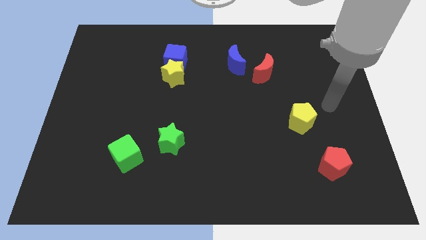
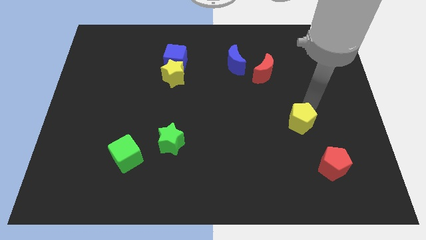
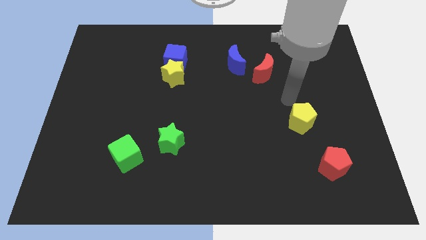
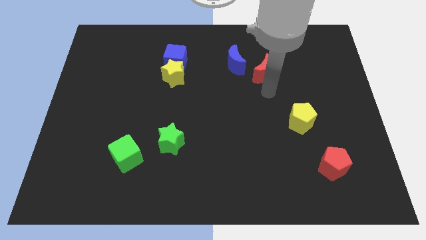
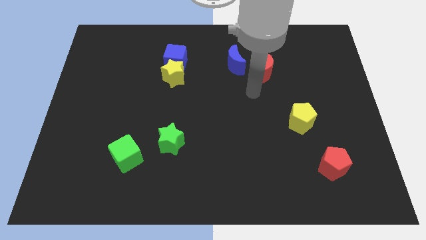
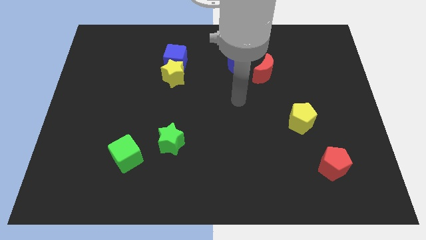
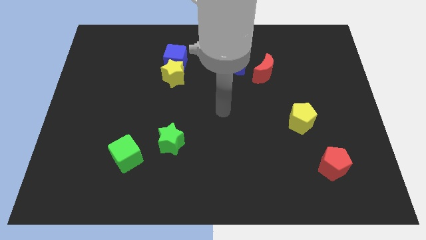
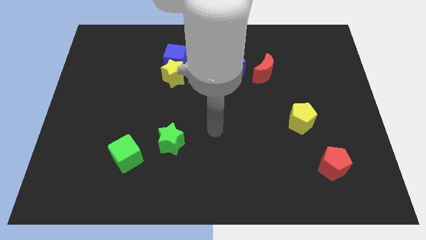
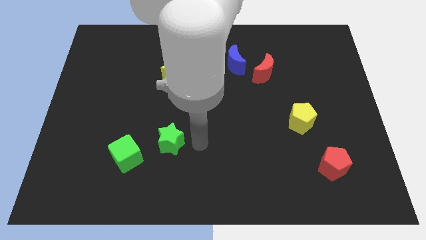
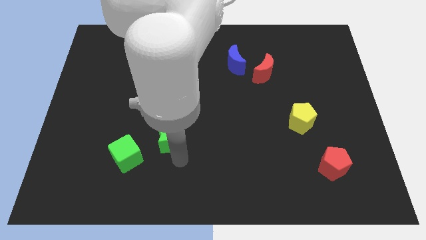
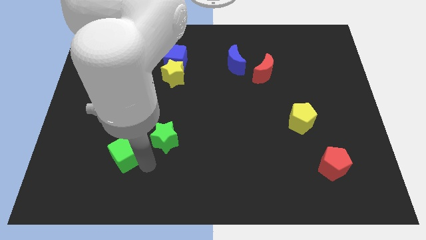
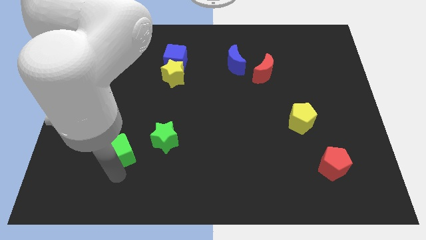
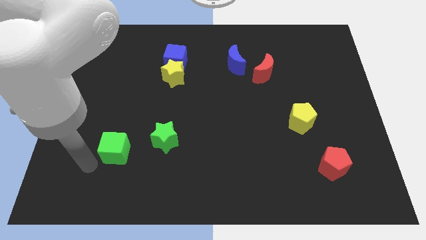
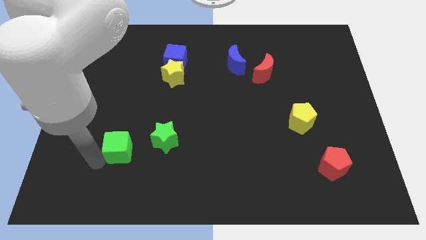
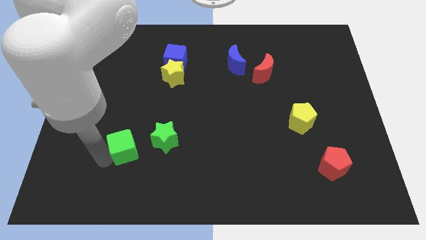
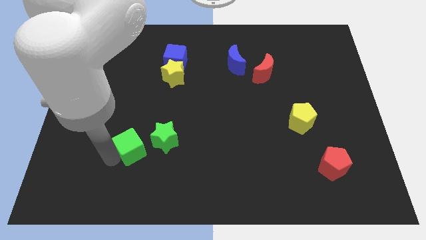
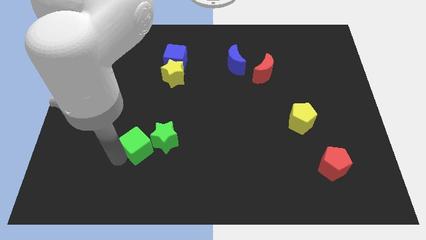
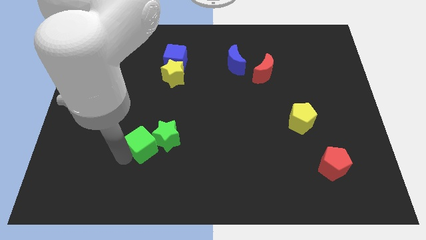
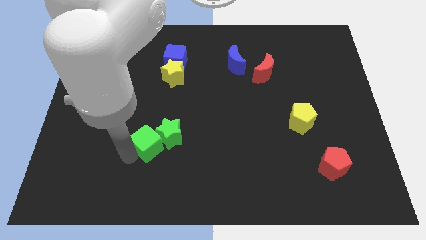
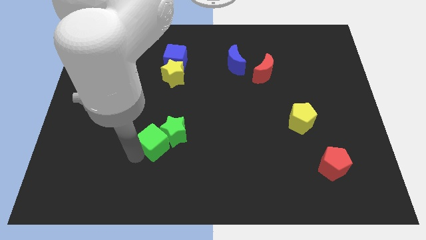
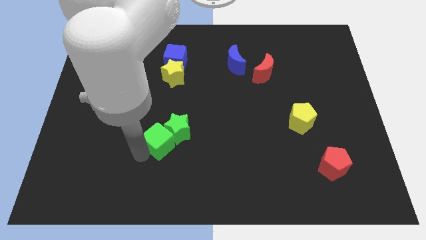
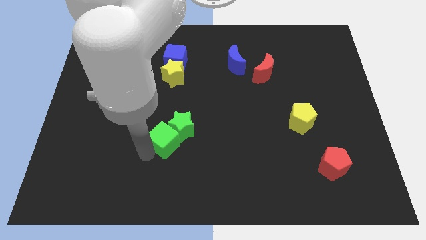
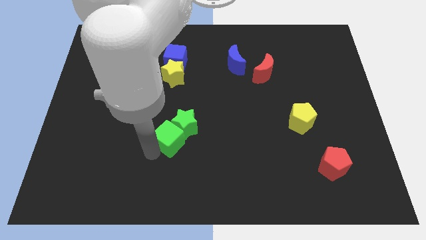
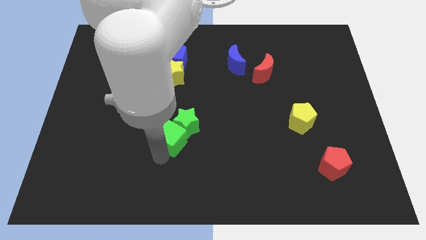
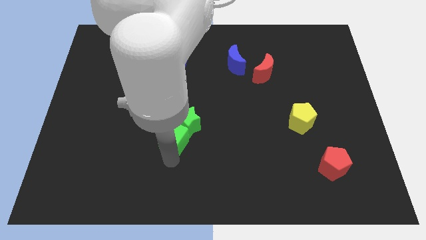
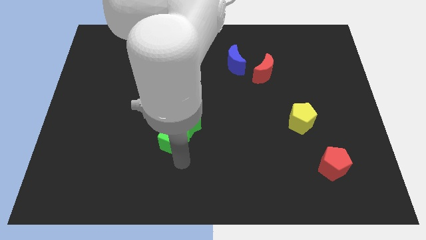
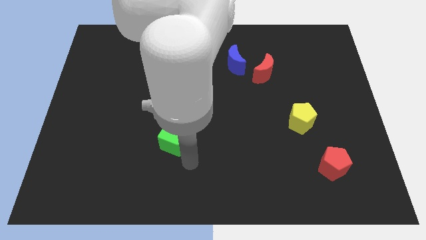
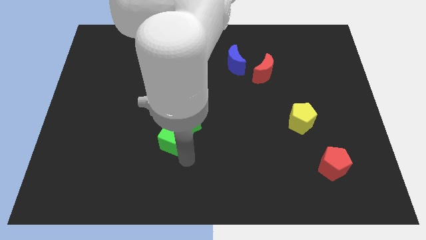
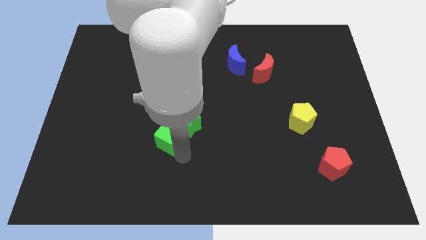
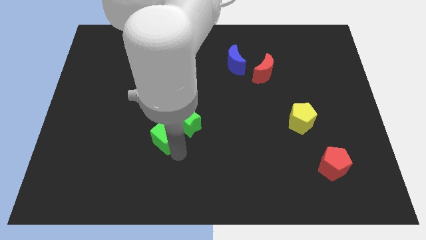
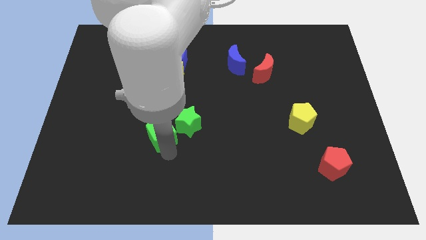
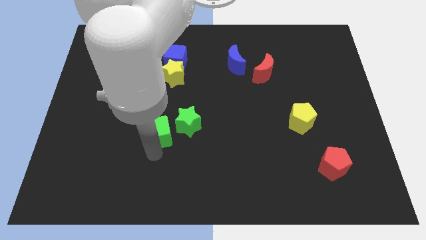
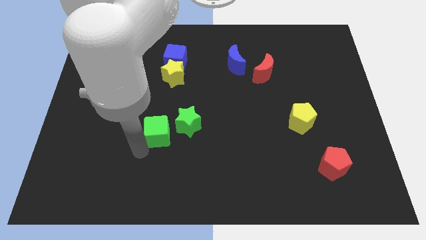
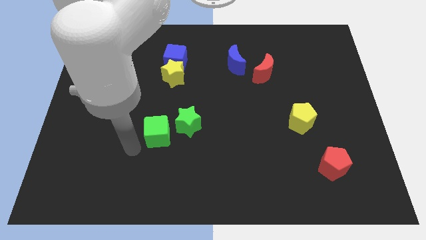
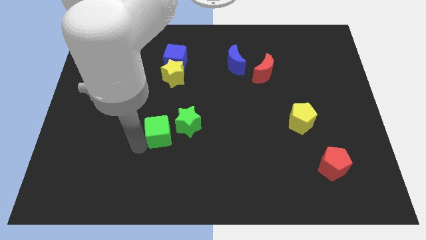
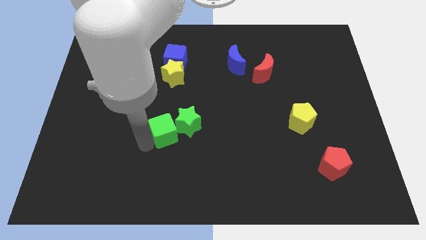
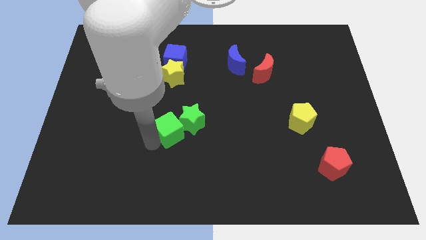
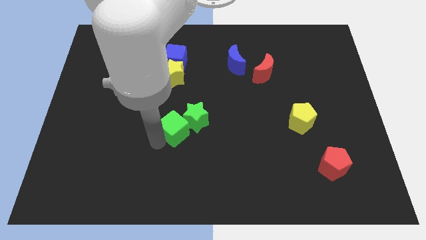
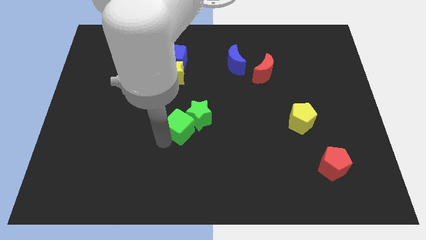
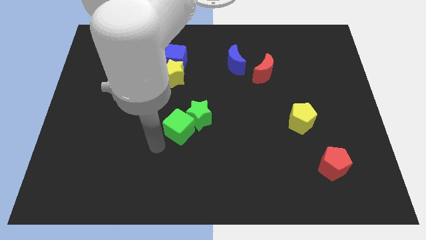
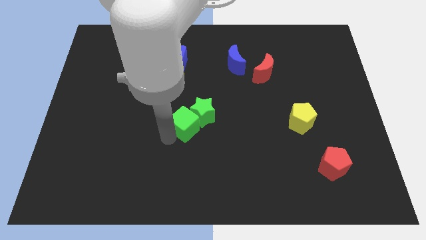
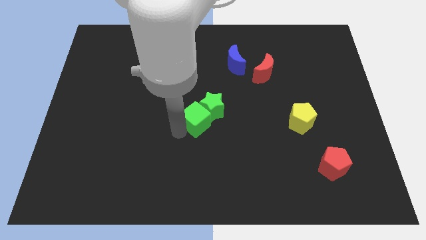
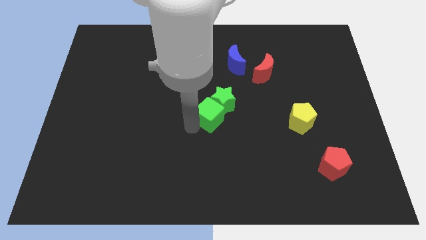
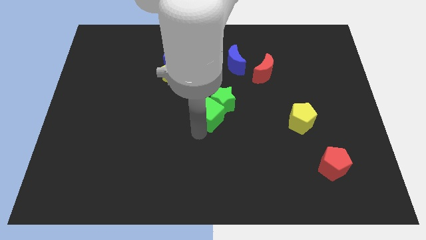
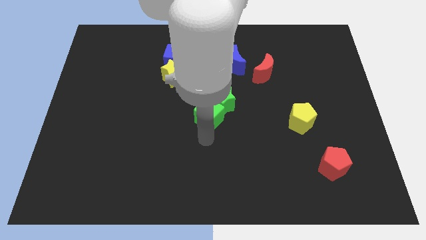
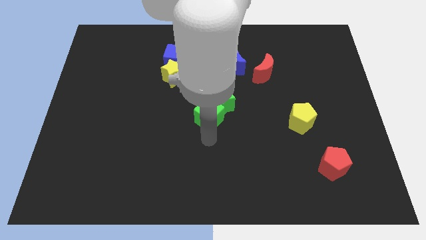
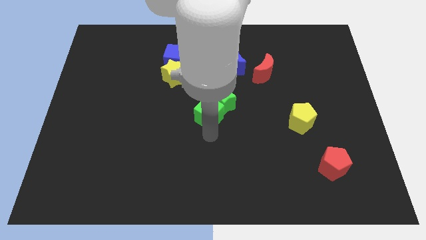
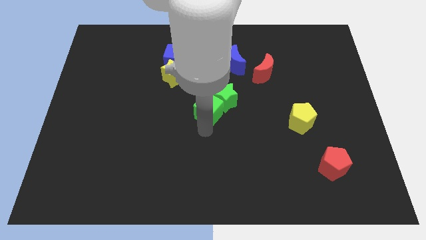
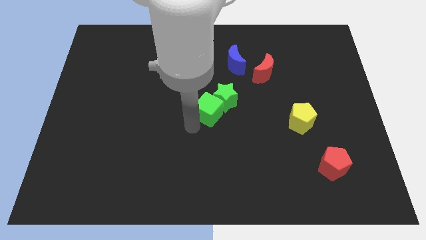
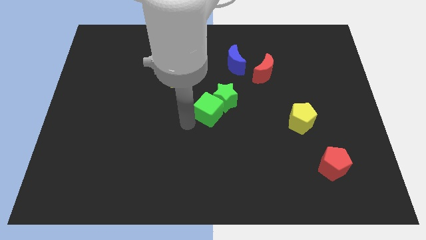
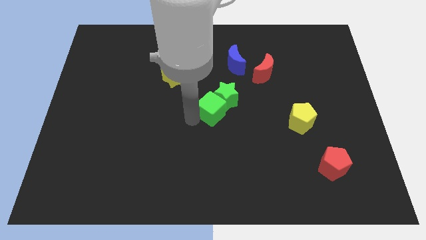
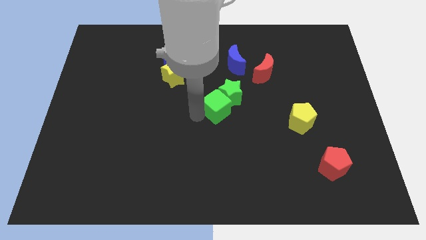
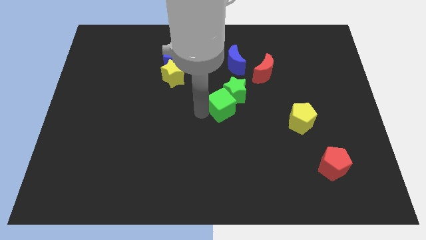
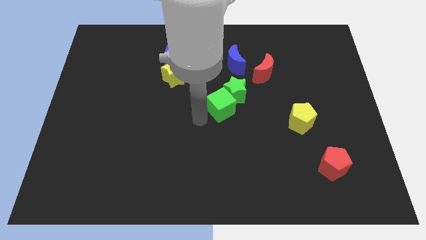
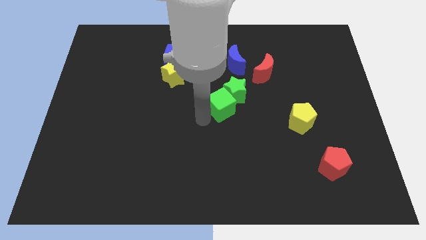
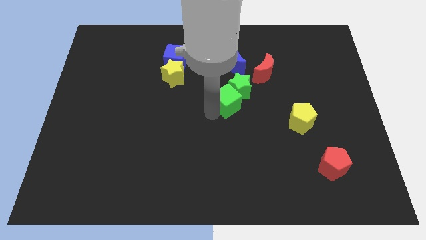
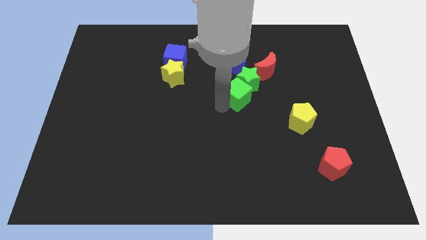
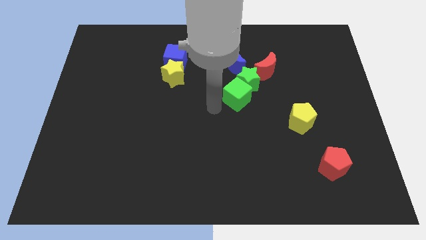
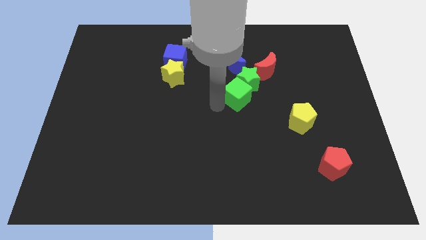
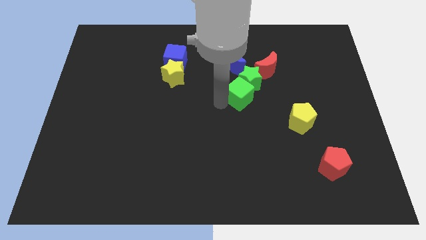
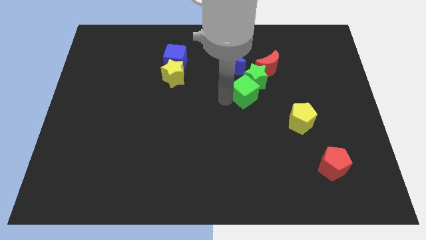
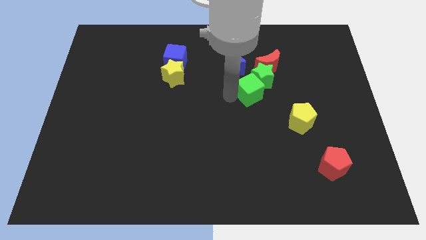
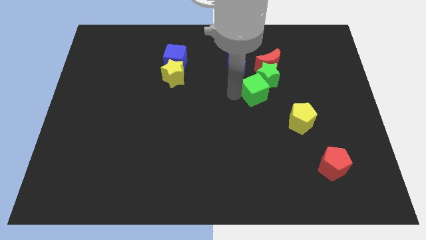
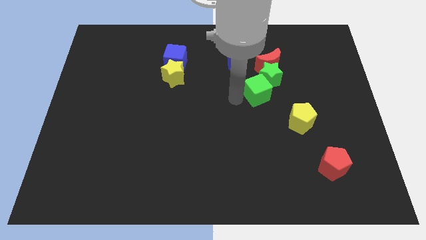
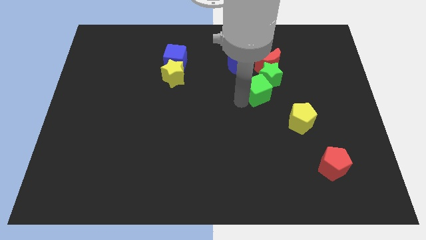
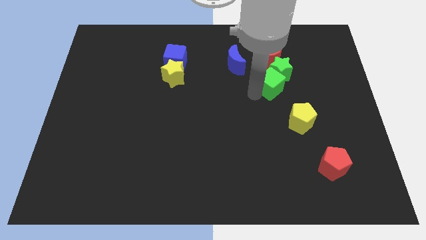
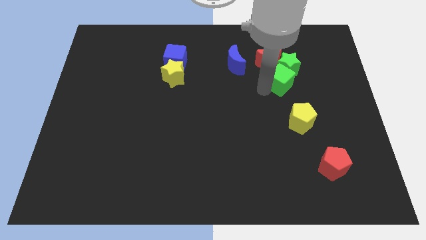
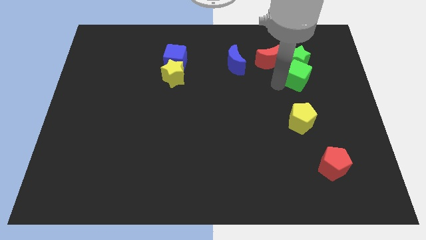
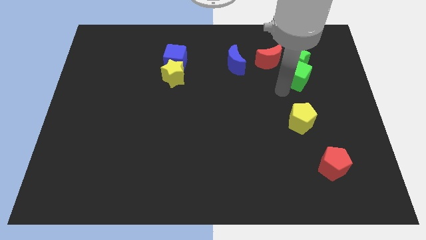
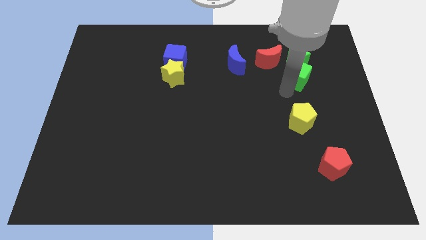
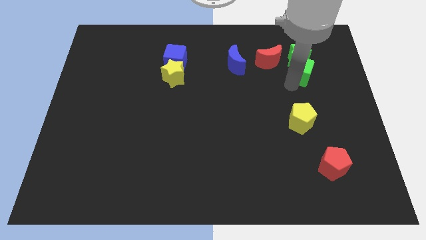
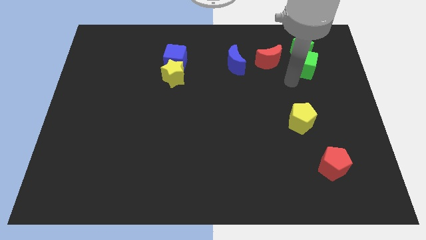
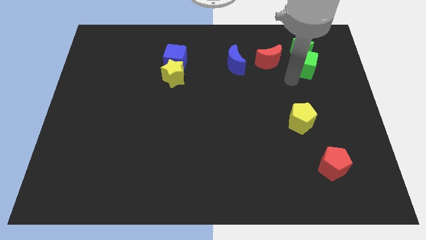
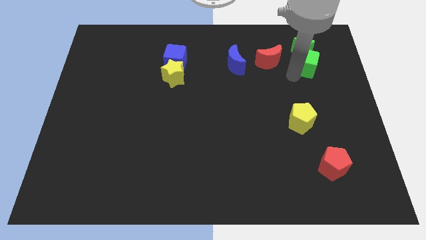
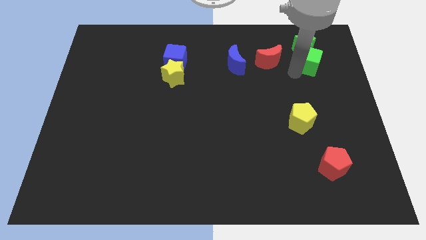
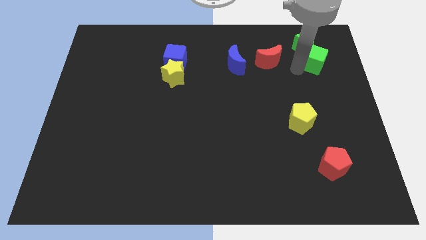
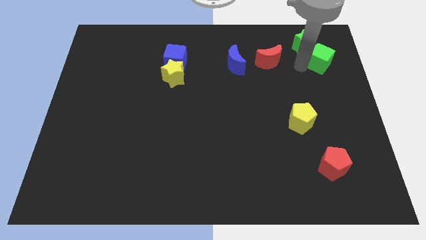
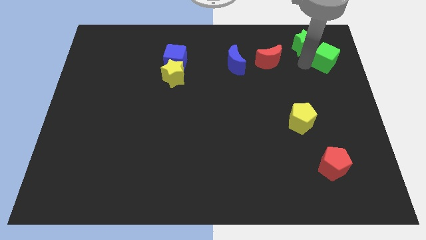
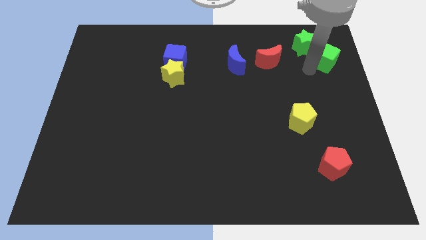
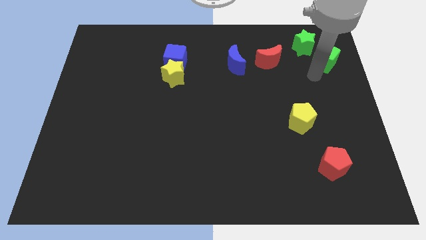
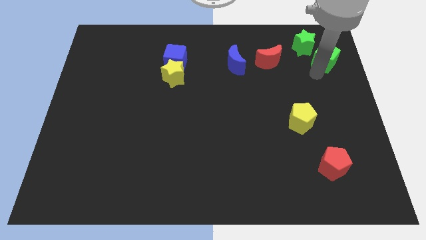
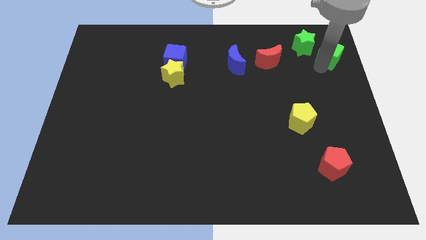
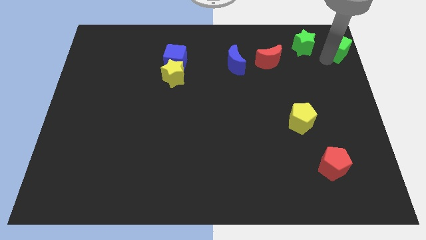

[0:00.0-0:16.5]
push the green cube to the top right corner
